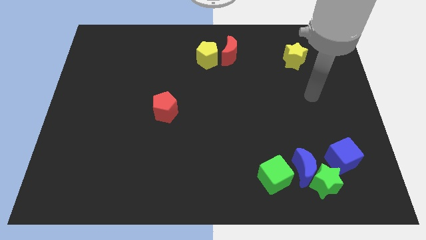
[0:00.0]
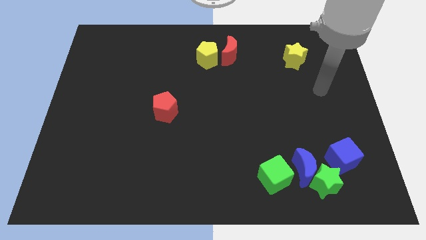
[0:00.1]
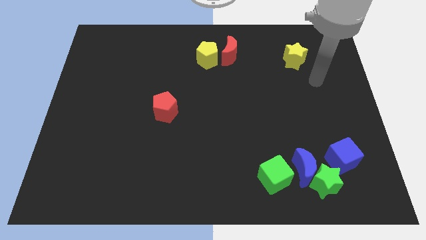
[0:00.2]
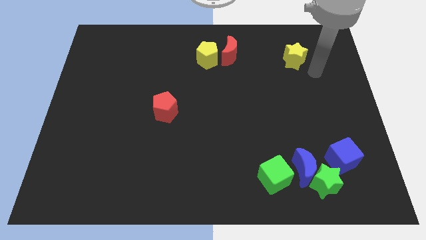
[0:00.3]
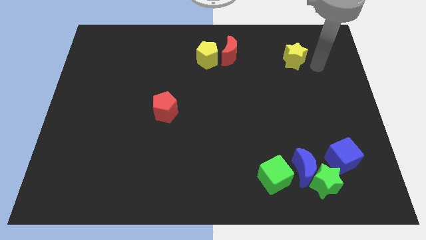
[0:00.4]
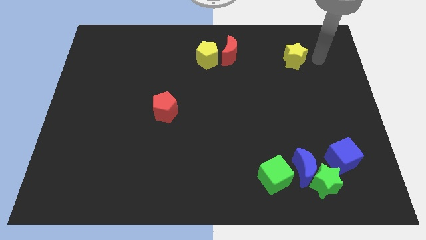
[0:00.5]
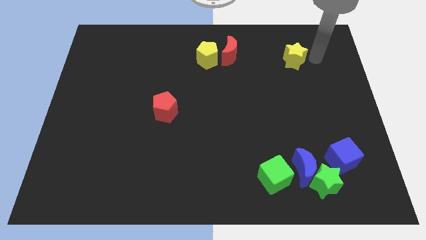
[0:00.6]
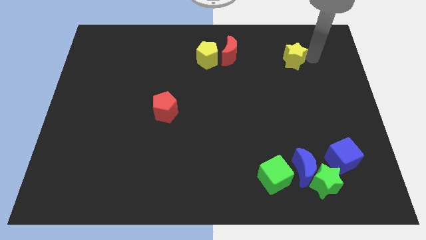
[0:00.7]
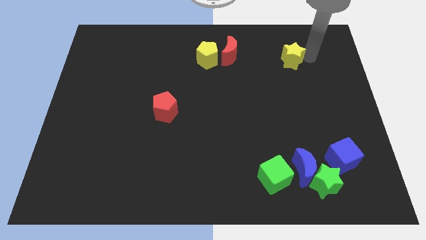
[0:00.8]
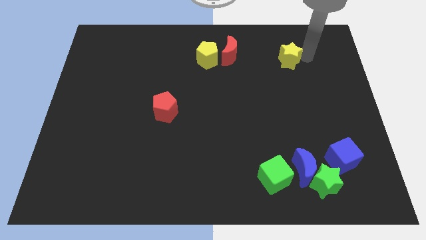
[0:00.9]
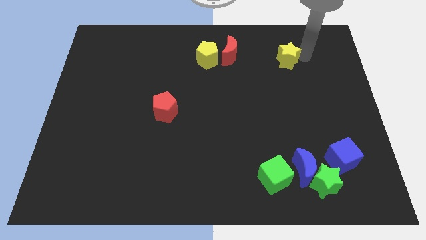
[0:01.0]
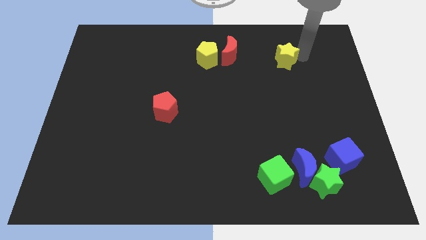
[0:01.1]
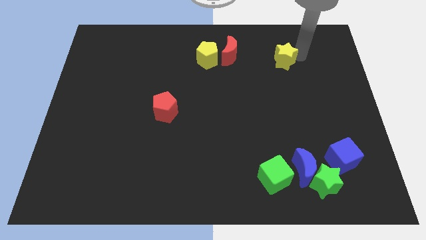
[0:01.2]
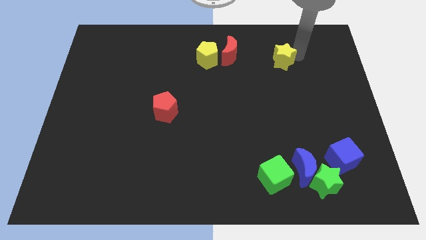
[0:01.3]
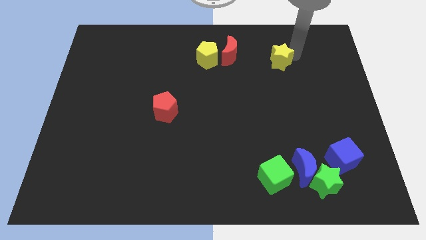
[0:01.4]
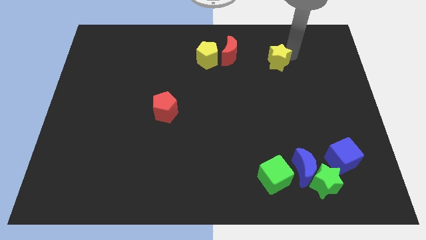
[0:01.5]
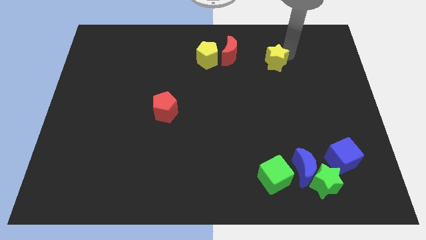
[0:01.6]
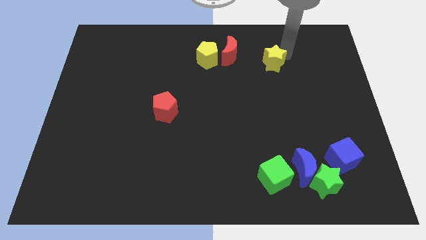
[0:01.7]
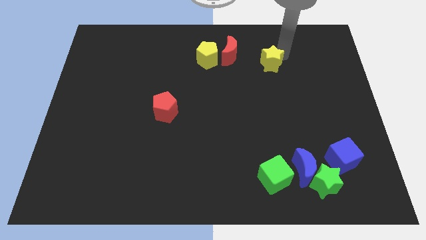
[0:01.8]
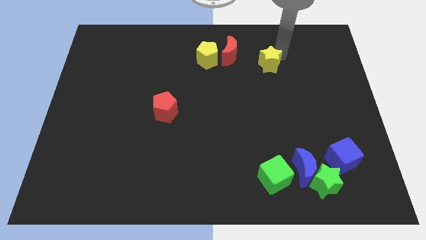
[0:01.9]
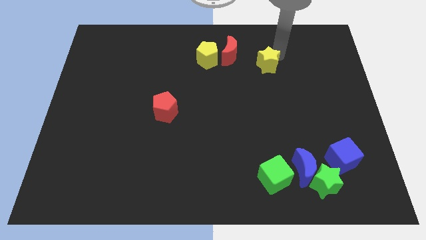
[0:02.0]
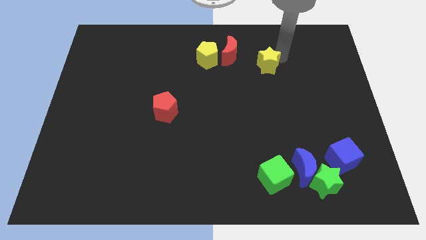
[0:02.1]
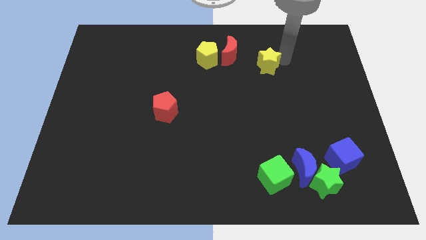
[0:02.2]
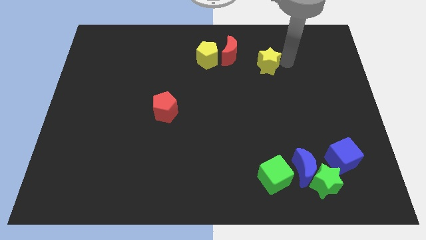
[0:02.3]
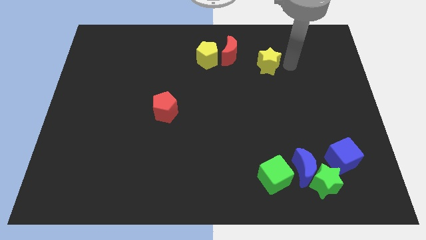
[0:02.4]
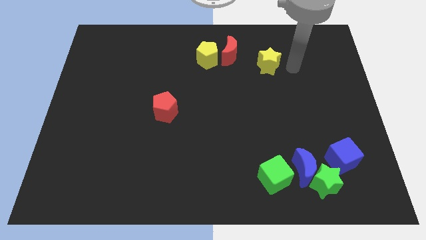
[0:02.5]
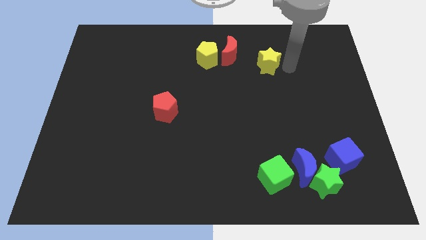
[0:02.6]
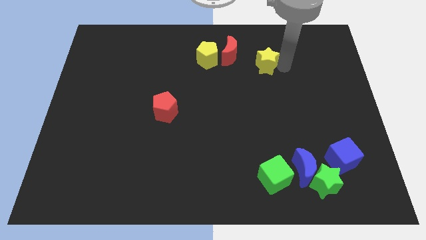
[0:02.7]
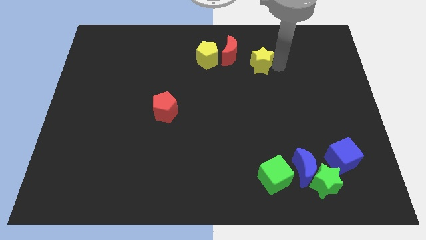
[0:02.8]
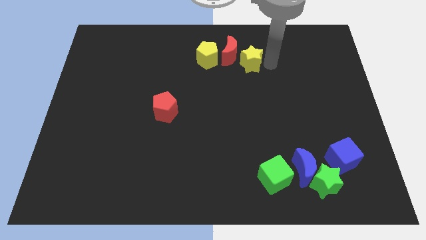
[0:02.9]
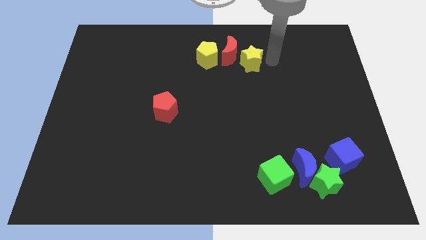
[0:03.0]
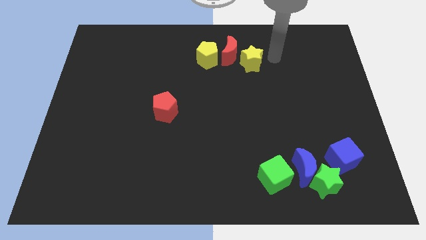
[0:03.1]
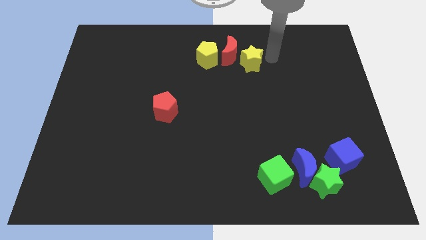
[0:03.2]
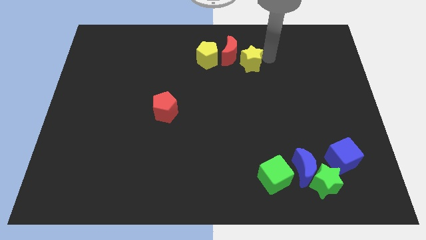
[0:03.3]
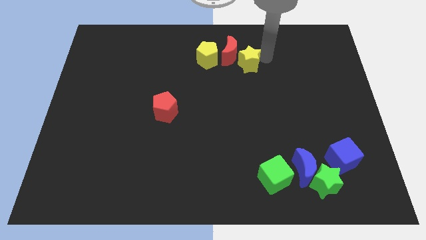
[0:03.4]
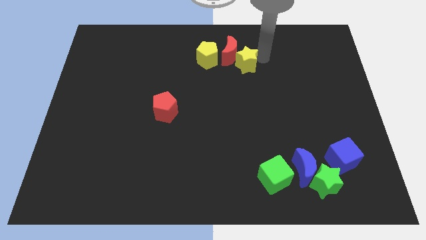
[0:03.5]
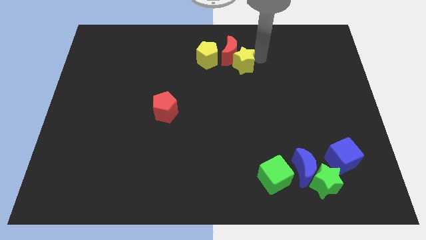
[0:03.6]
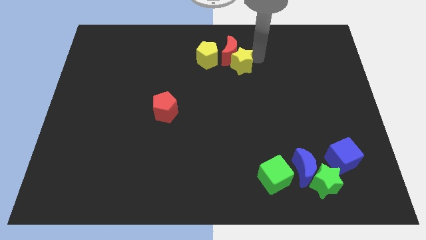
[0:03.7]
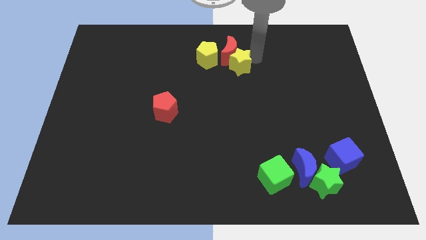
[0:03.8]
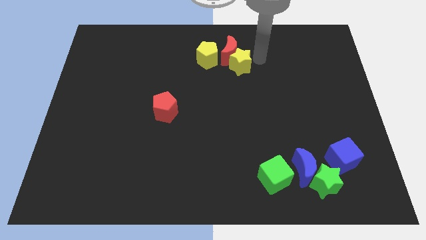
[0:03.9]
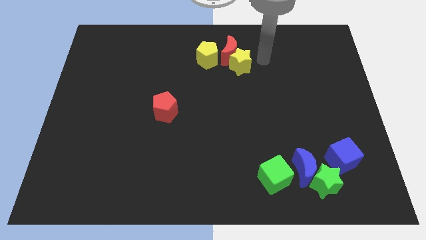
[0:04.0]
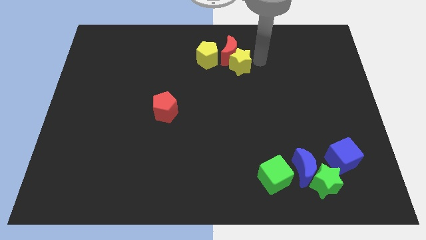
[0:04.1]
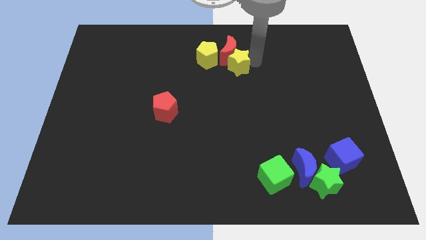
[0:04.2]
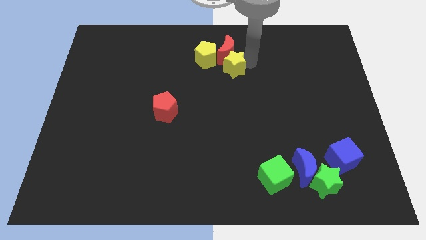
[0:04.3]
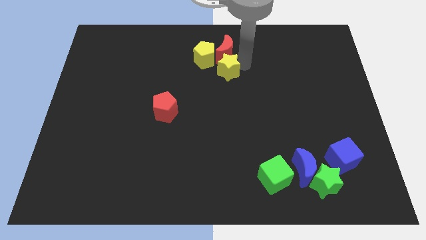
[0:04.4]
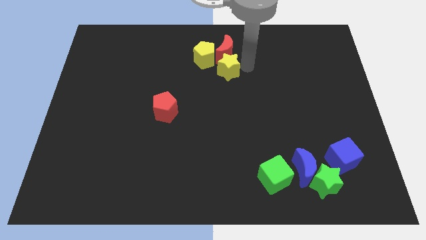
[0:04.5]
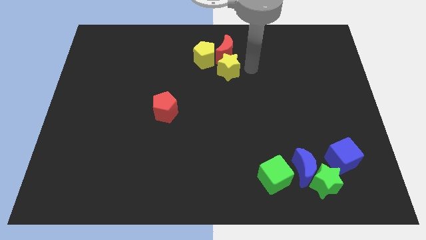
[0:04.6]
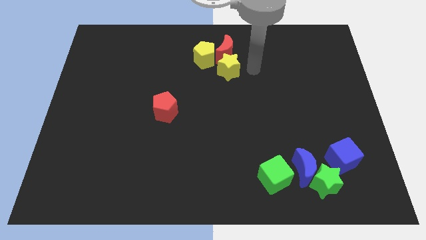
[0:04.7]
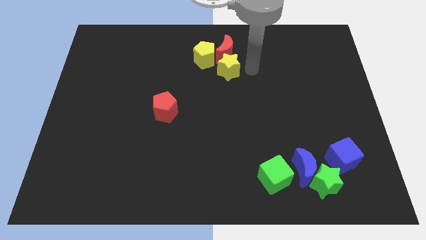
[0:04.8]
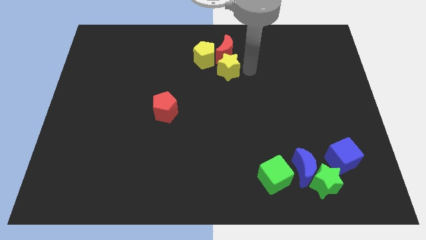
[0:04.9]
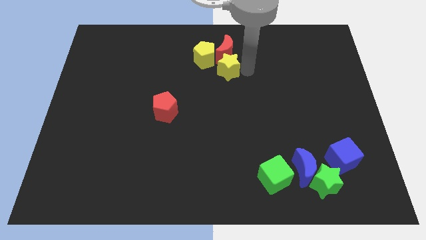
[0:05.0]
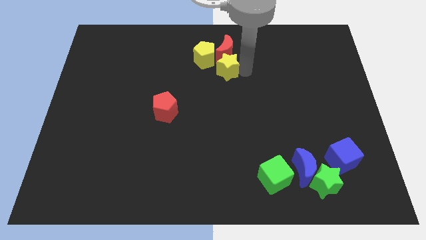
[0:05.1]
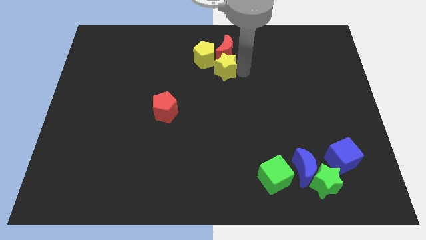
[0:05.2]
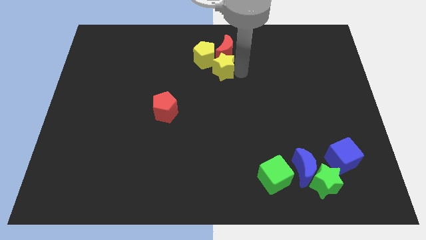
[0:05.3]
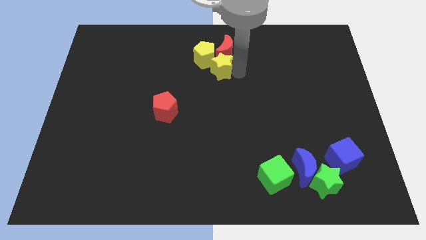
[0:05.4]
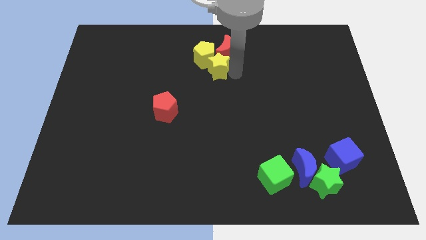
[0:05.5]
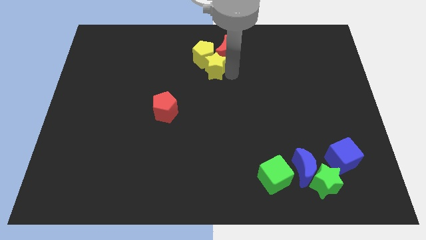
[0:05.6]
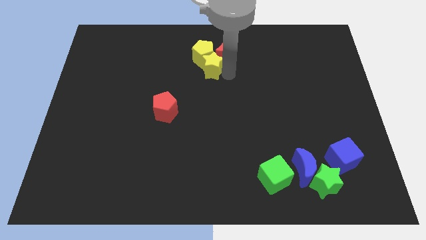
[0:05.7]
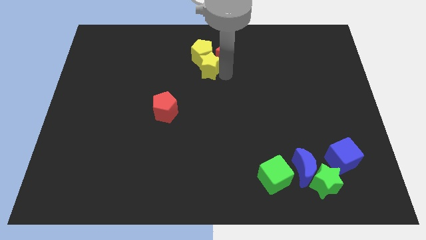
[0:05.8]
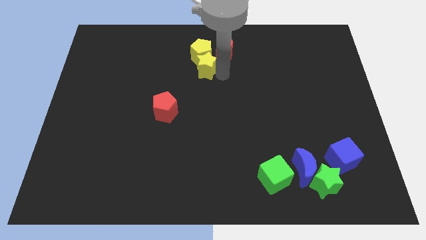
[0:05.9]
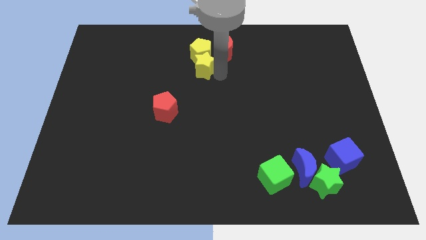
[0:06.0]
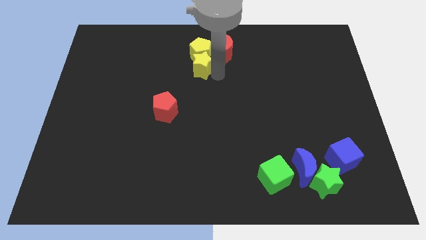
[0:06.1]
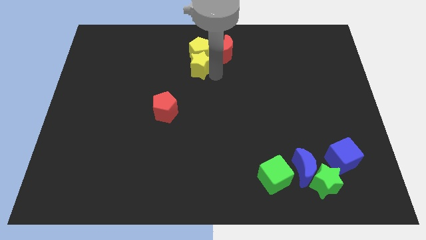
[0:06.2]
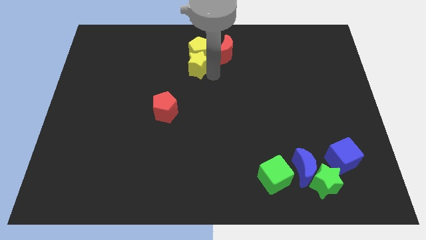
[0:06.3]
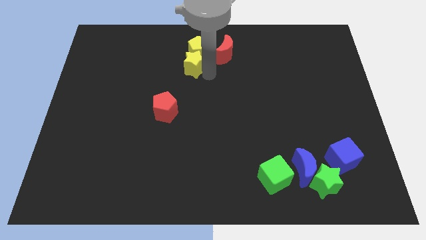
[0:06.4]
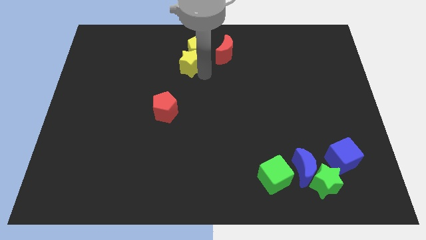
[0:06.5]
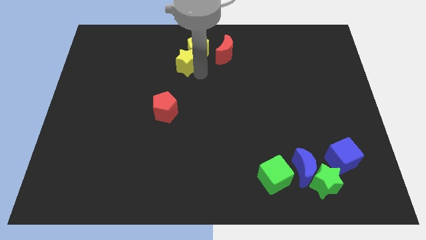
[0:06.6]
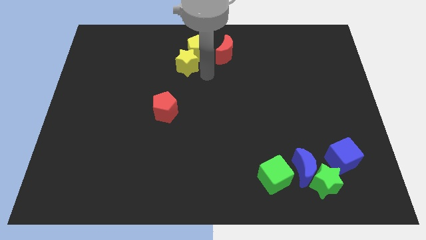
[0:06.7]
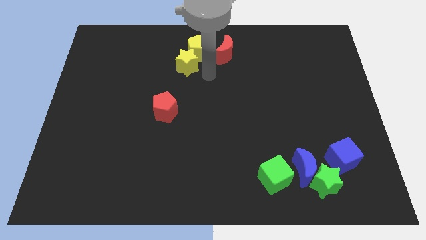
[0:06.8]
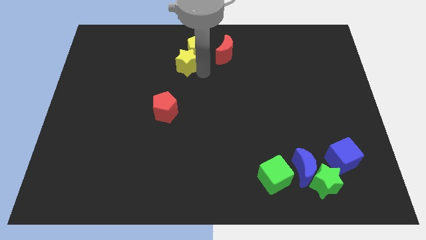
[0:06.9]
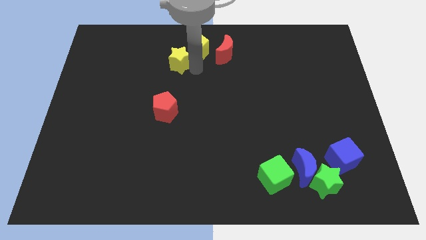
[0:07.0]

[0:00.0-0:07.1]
push the yellow star just left of the yellow pentagon

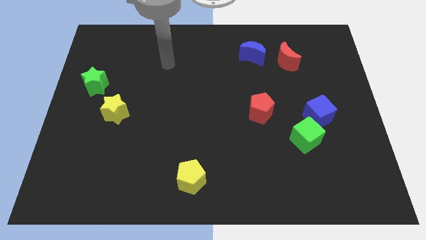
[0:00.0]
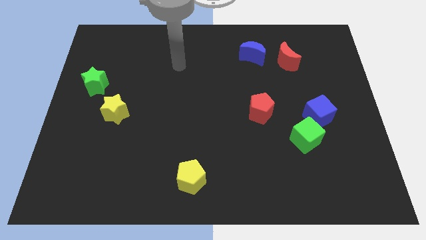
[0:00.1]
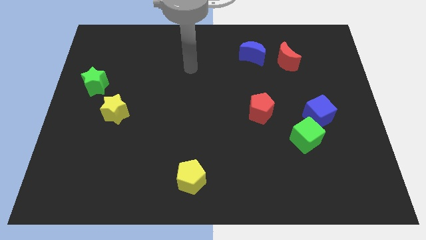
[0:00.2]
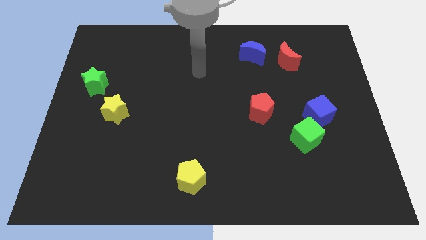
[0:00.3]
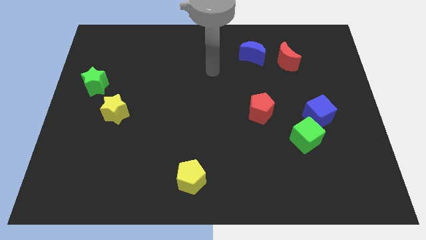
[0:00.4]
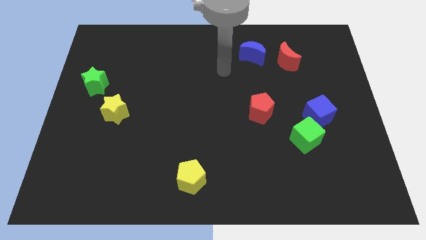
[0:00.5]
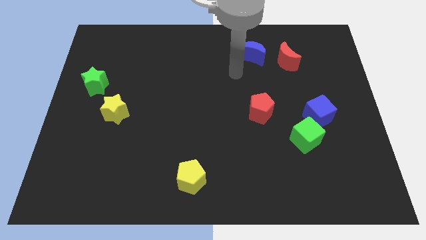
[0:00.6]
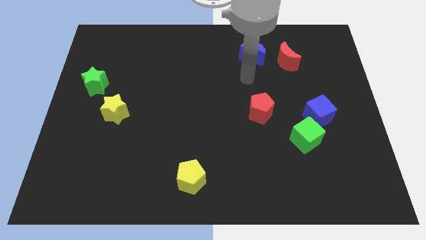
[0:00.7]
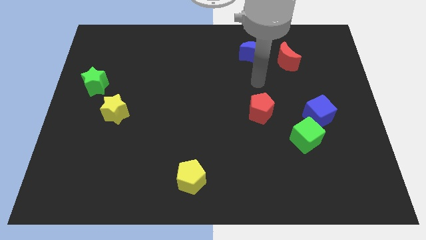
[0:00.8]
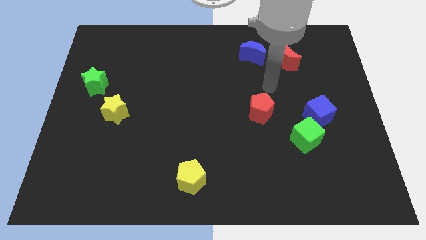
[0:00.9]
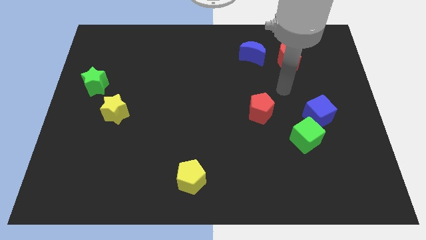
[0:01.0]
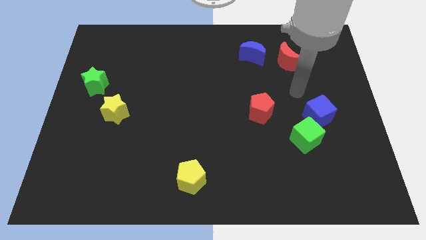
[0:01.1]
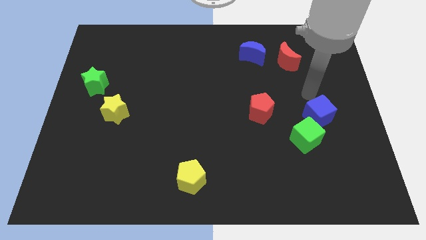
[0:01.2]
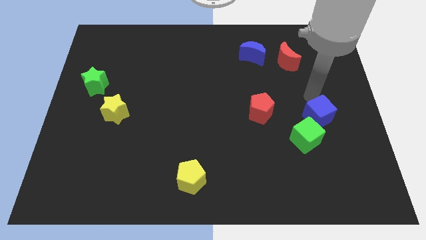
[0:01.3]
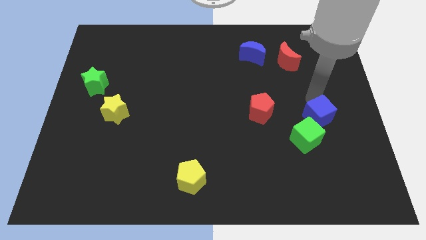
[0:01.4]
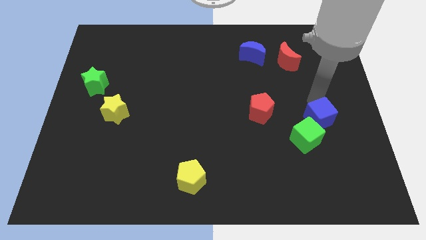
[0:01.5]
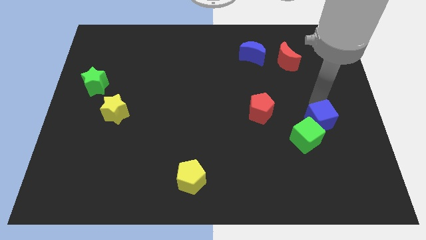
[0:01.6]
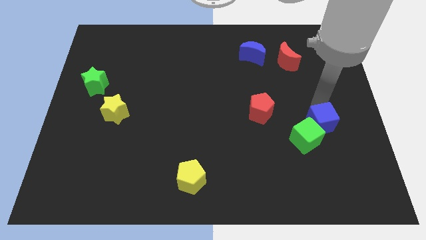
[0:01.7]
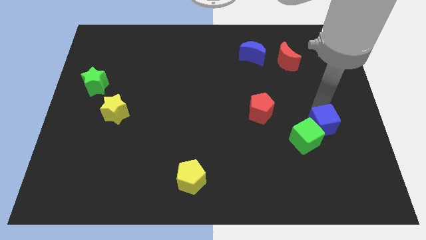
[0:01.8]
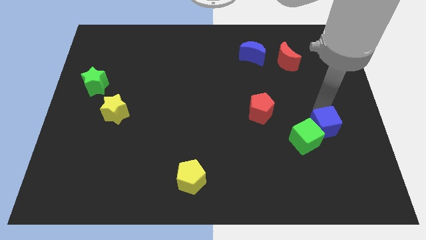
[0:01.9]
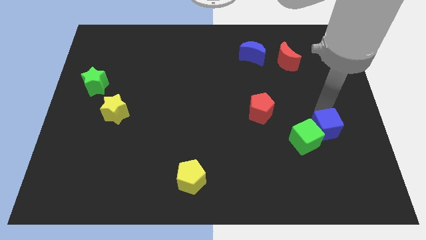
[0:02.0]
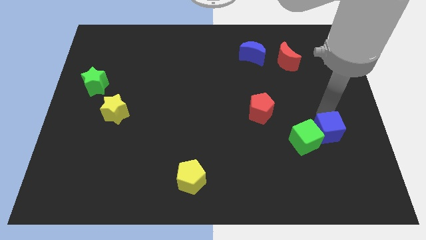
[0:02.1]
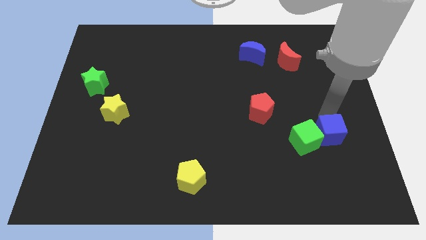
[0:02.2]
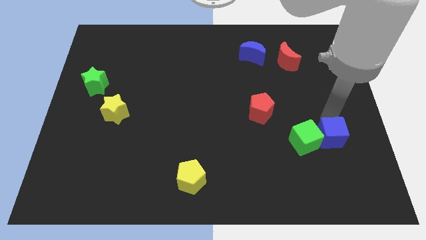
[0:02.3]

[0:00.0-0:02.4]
slide the blue cube to the bottom right of the green cube
